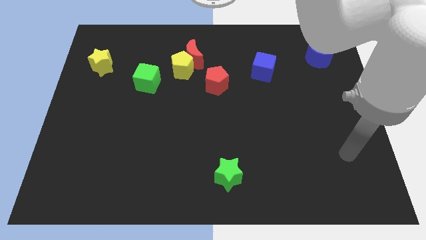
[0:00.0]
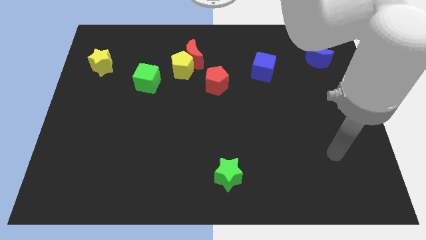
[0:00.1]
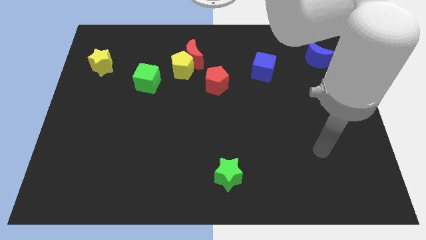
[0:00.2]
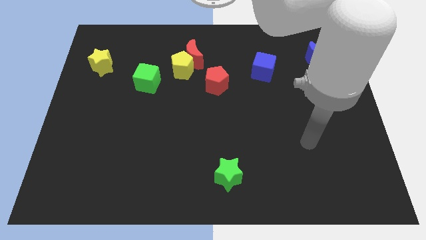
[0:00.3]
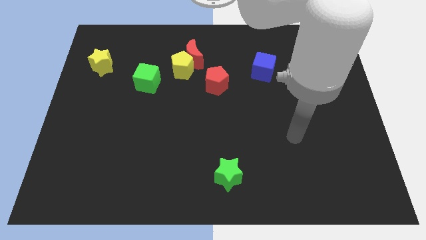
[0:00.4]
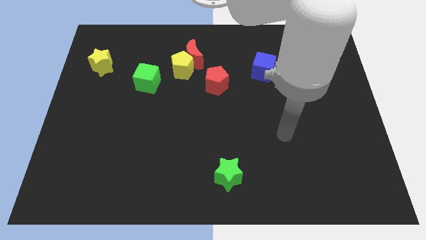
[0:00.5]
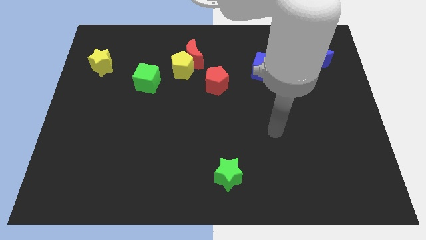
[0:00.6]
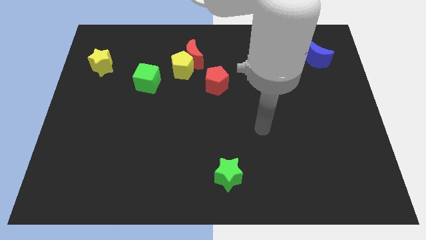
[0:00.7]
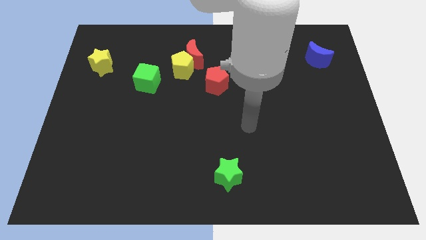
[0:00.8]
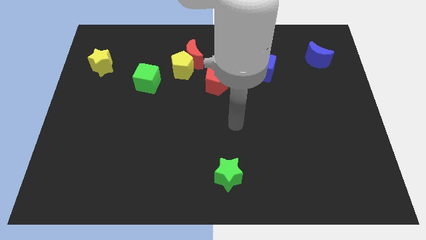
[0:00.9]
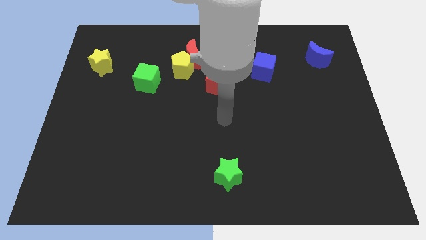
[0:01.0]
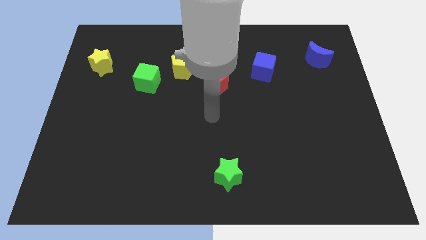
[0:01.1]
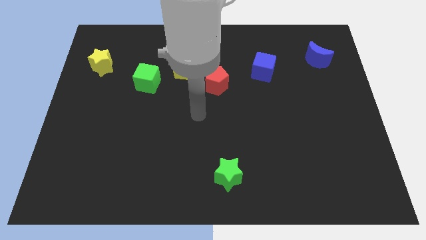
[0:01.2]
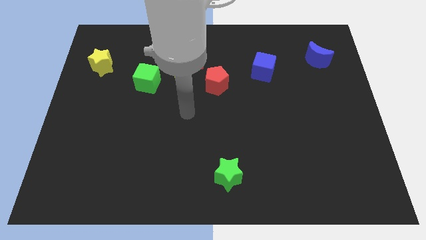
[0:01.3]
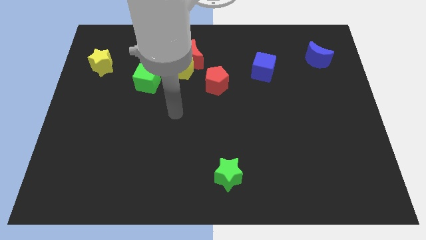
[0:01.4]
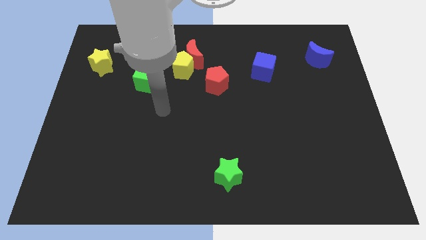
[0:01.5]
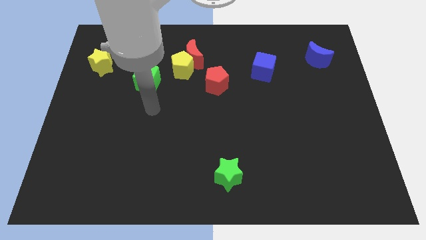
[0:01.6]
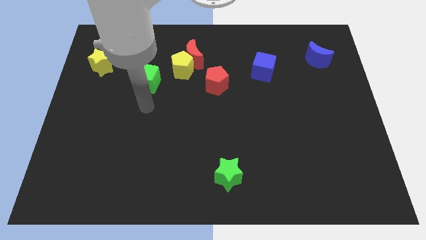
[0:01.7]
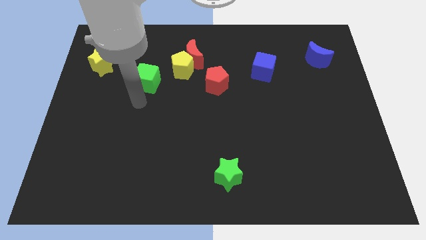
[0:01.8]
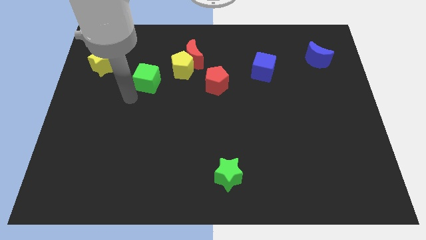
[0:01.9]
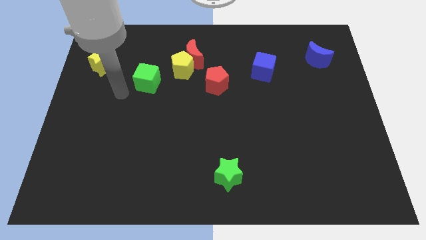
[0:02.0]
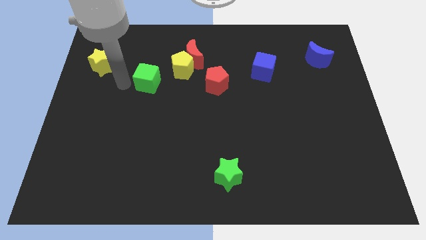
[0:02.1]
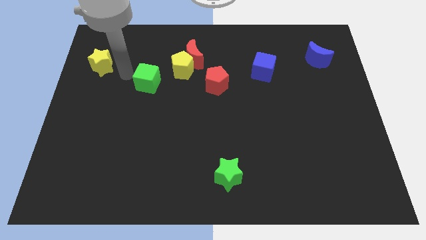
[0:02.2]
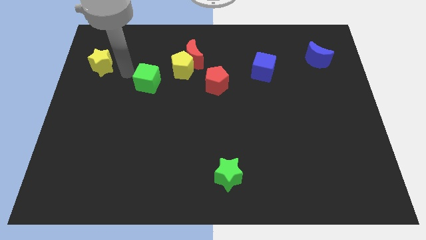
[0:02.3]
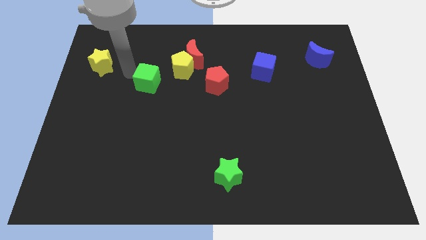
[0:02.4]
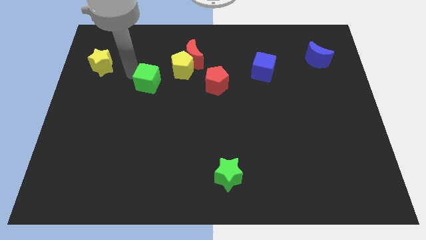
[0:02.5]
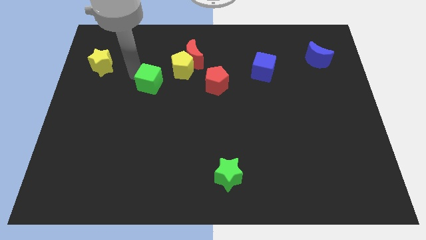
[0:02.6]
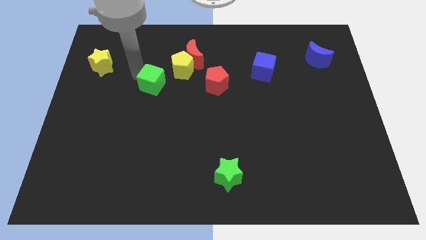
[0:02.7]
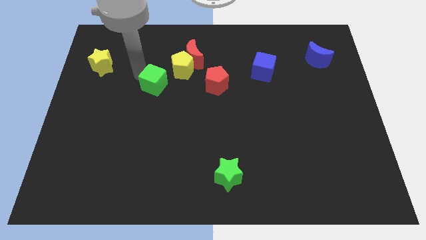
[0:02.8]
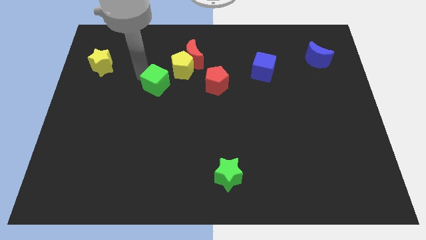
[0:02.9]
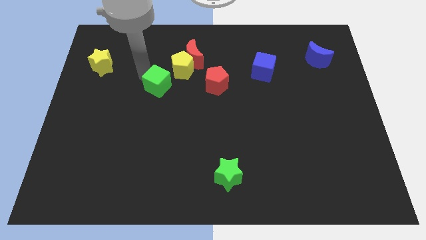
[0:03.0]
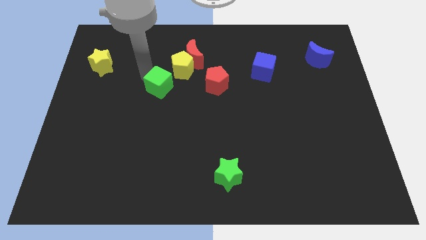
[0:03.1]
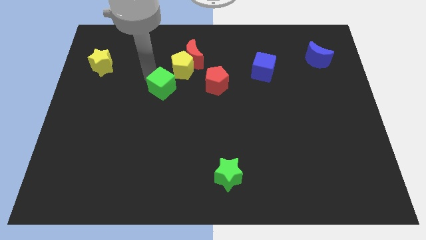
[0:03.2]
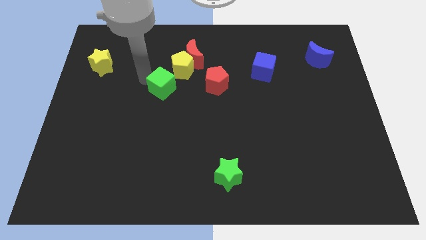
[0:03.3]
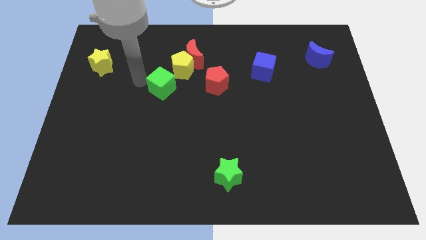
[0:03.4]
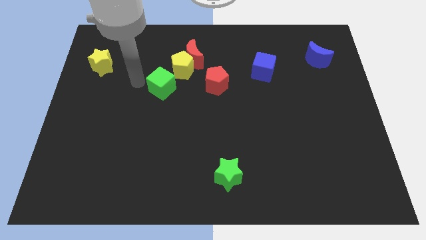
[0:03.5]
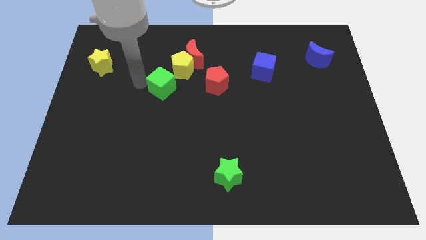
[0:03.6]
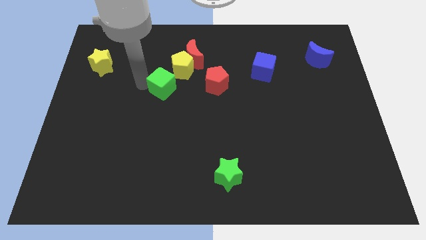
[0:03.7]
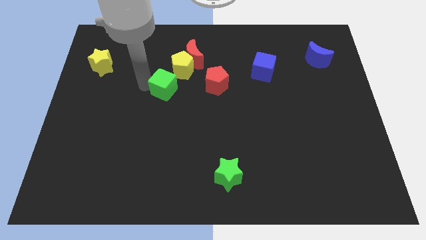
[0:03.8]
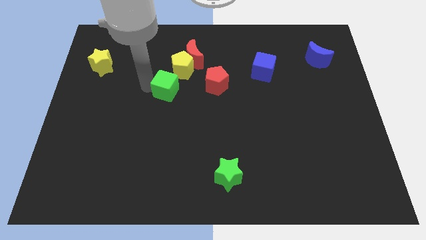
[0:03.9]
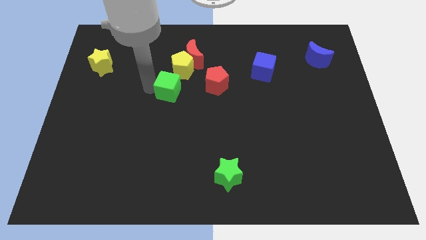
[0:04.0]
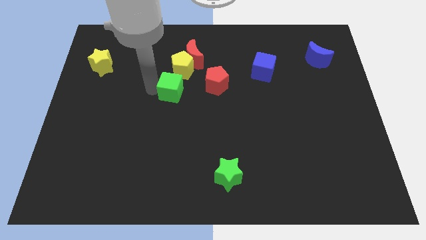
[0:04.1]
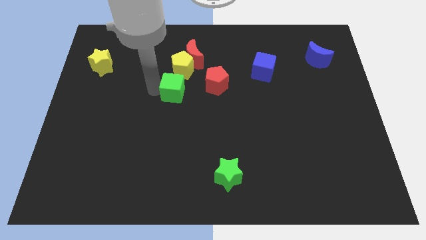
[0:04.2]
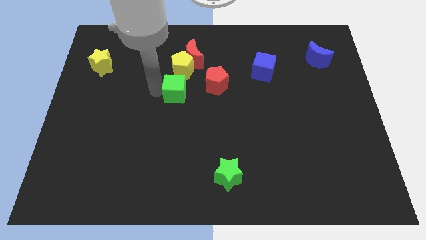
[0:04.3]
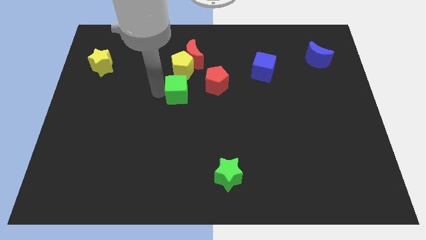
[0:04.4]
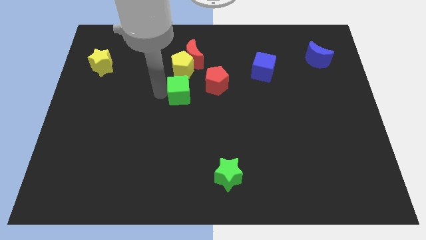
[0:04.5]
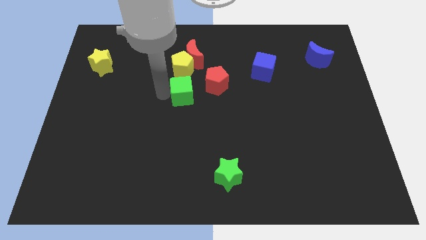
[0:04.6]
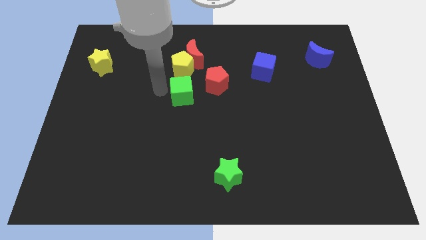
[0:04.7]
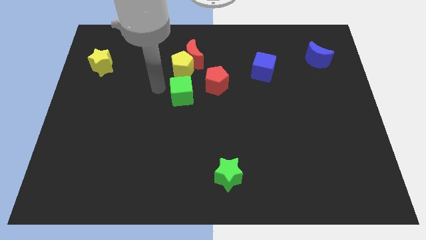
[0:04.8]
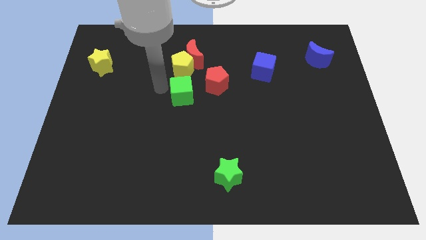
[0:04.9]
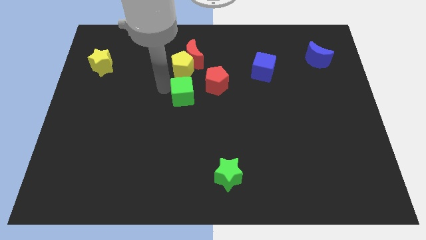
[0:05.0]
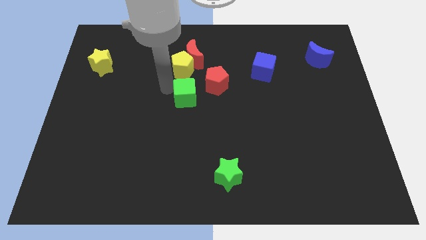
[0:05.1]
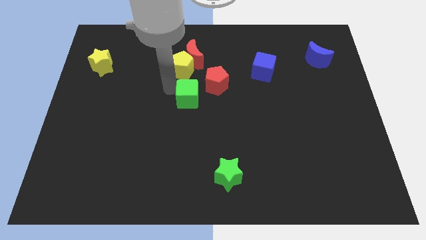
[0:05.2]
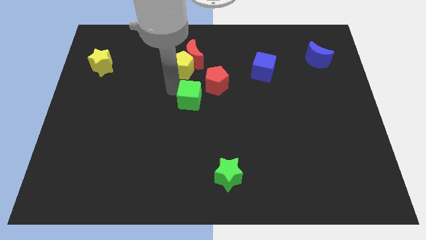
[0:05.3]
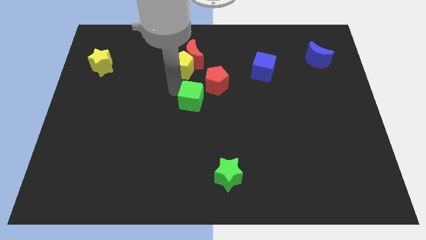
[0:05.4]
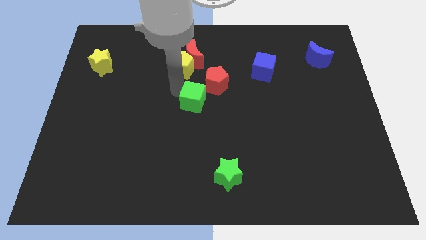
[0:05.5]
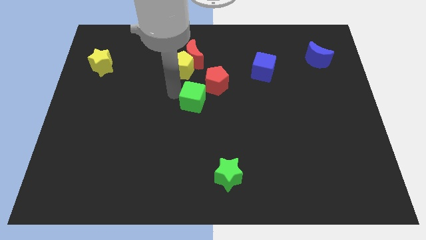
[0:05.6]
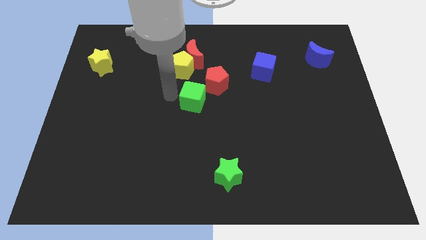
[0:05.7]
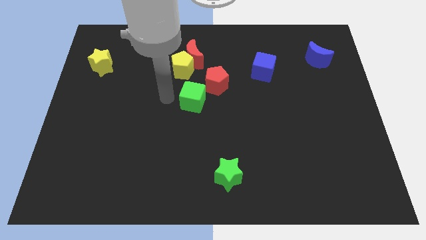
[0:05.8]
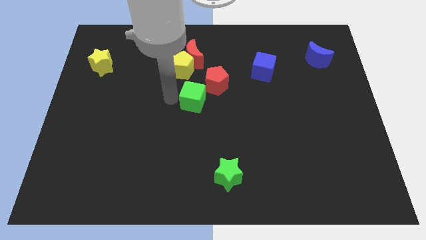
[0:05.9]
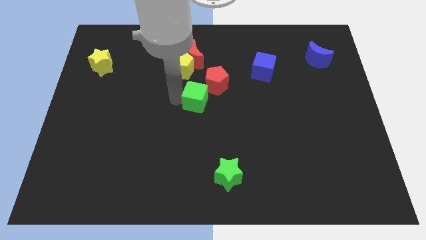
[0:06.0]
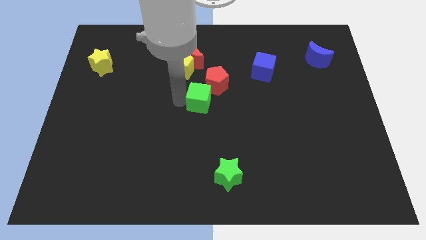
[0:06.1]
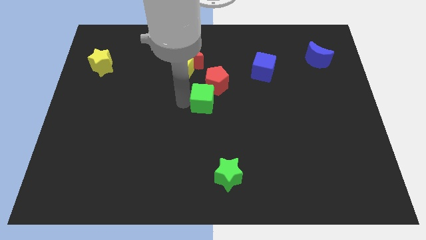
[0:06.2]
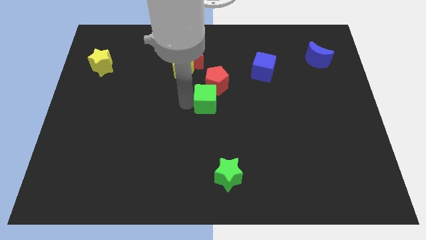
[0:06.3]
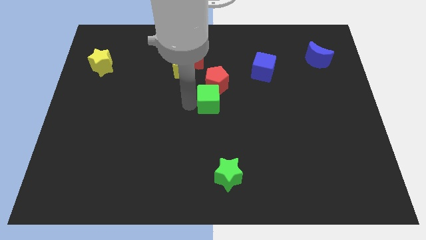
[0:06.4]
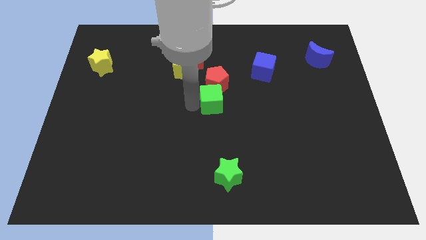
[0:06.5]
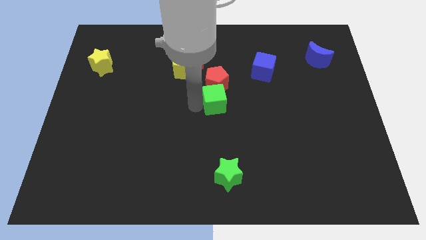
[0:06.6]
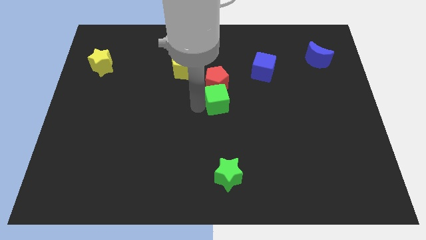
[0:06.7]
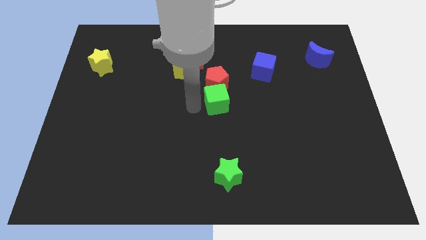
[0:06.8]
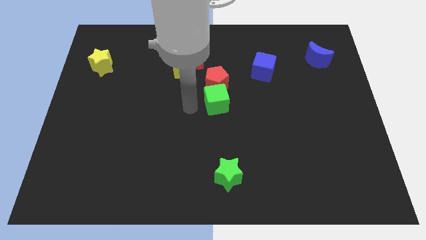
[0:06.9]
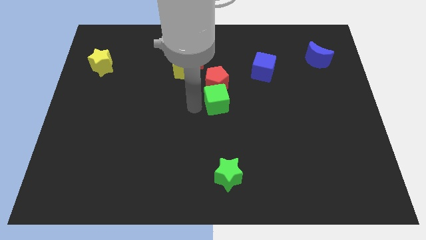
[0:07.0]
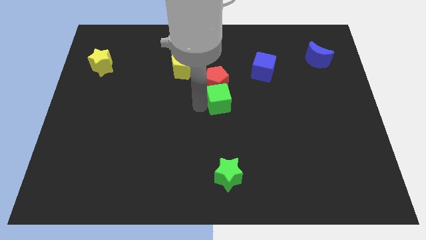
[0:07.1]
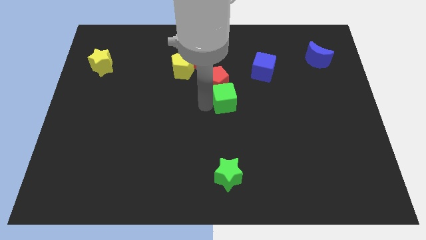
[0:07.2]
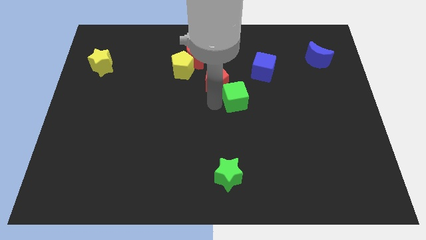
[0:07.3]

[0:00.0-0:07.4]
move the green cube to the right

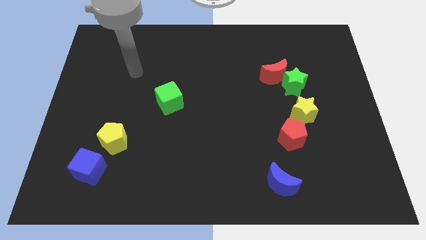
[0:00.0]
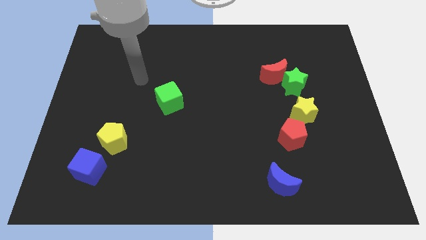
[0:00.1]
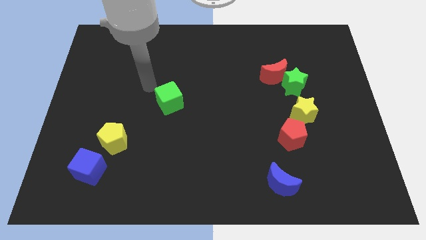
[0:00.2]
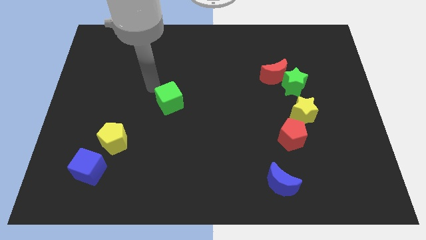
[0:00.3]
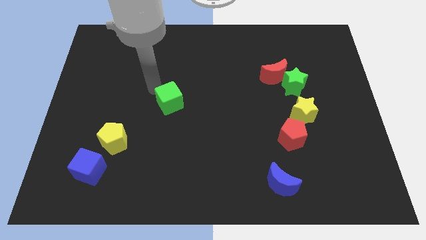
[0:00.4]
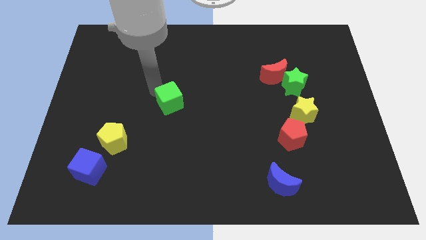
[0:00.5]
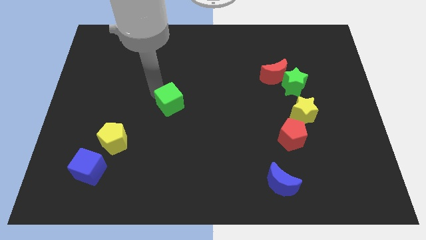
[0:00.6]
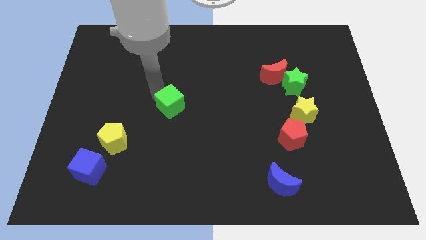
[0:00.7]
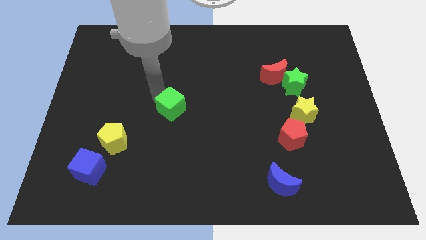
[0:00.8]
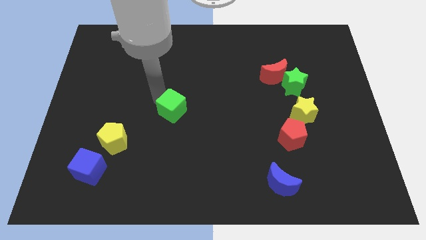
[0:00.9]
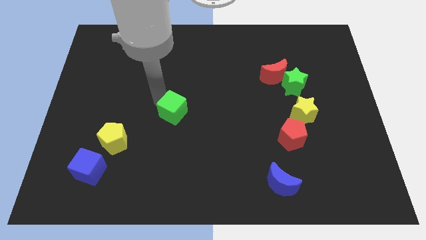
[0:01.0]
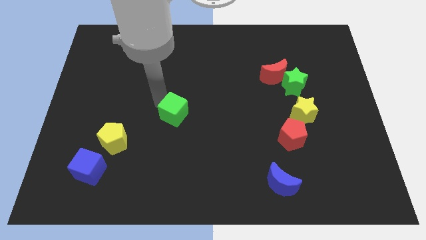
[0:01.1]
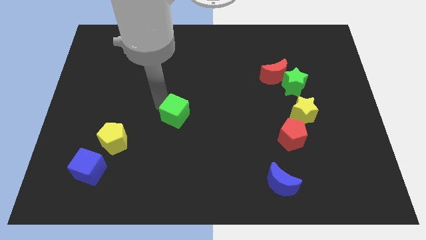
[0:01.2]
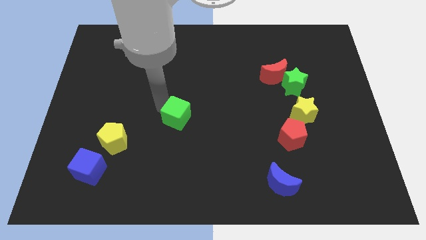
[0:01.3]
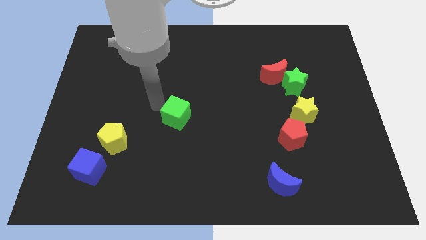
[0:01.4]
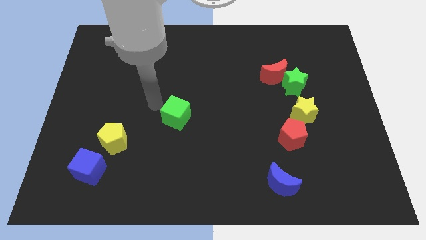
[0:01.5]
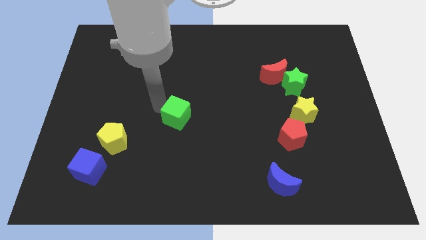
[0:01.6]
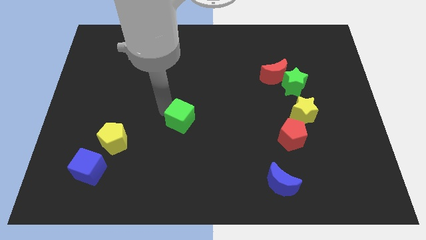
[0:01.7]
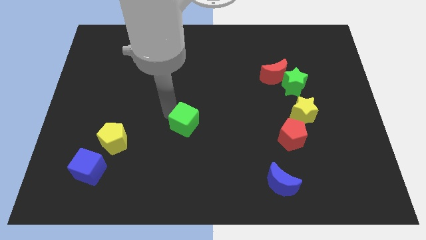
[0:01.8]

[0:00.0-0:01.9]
slightly move the green cube downwards and then right
